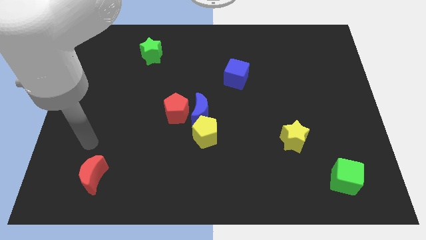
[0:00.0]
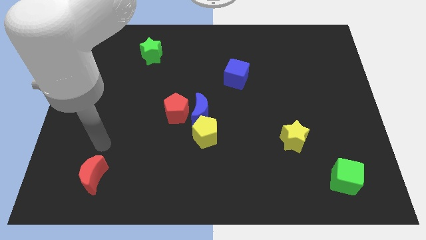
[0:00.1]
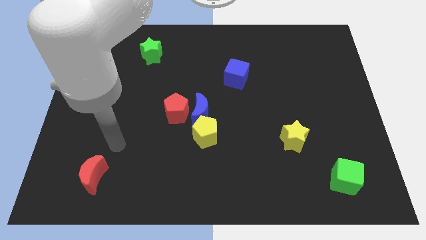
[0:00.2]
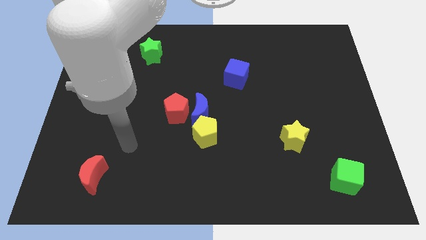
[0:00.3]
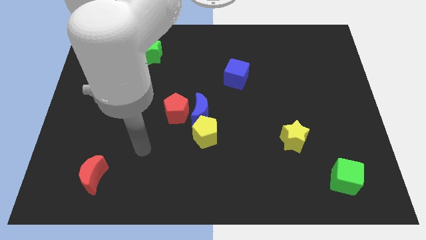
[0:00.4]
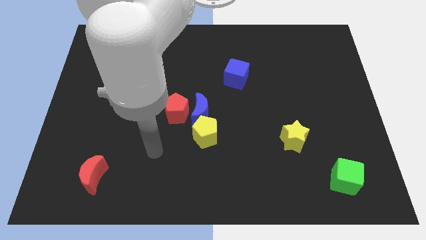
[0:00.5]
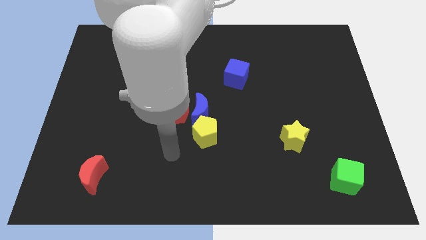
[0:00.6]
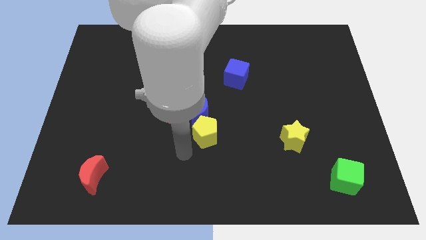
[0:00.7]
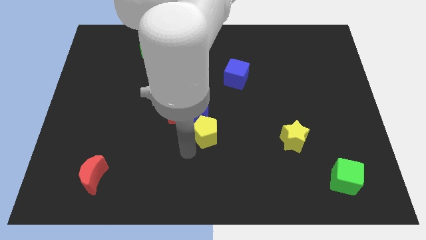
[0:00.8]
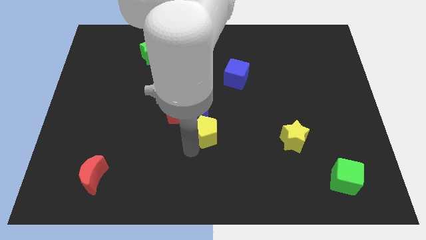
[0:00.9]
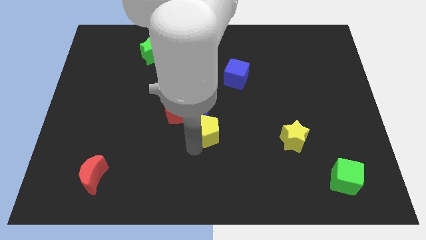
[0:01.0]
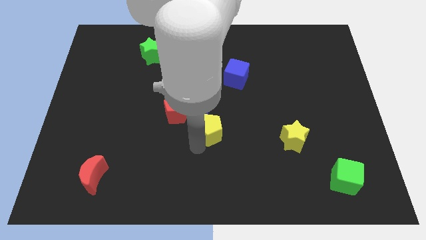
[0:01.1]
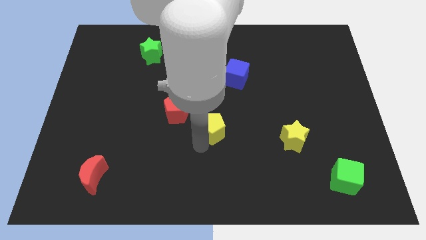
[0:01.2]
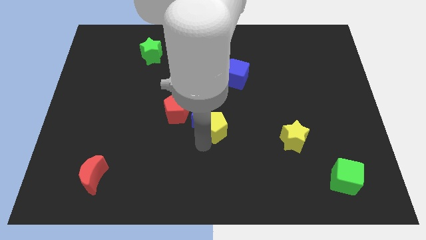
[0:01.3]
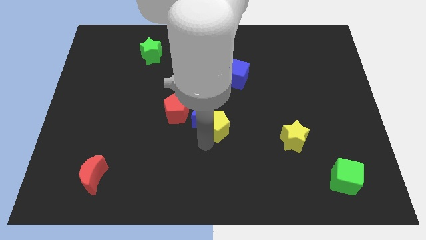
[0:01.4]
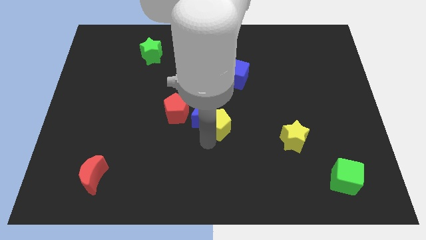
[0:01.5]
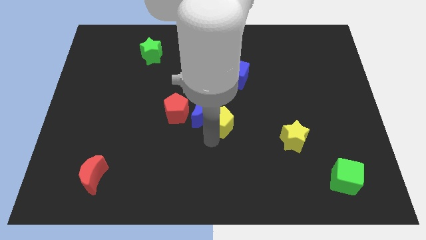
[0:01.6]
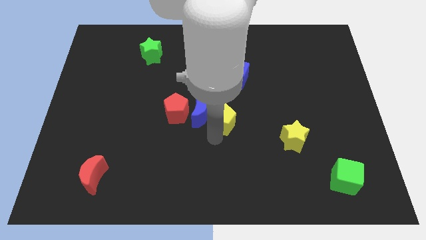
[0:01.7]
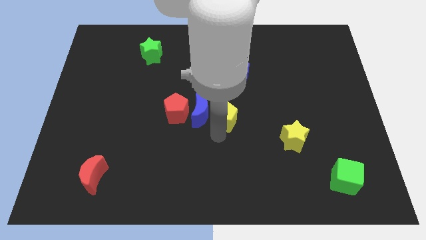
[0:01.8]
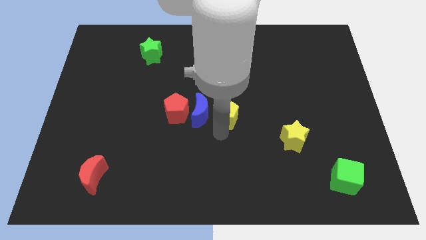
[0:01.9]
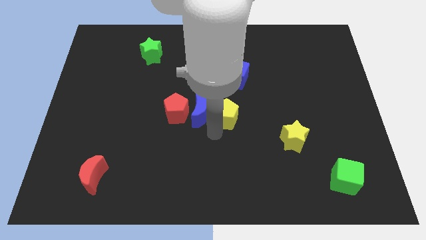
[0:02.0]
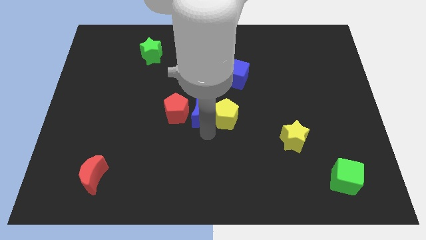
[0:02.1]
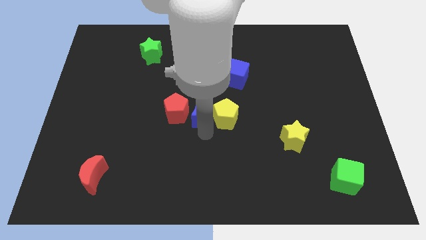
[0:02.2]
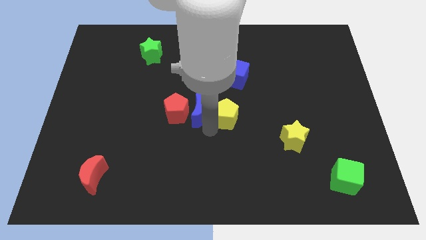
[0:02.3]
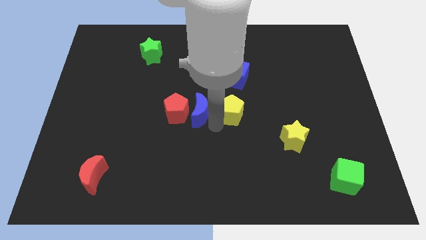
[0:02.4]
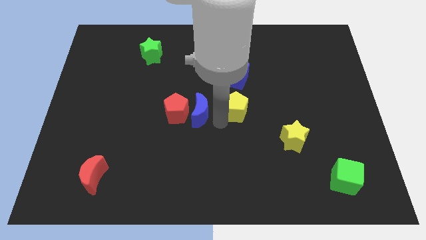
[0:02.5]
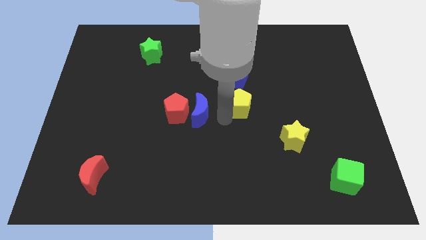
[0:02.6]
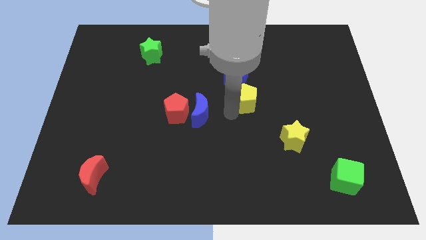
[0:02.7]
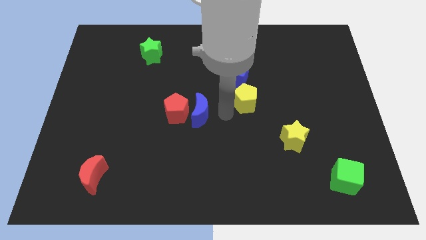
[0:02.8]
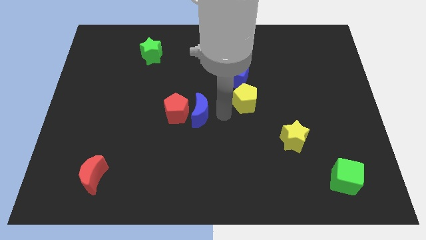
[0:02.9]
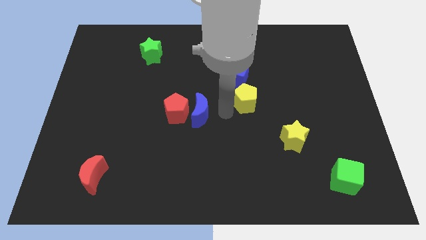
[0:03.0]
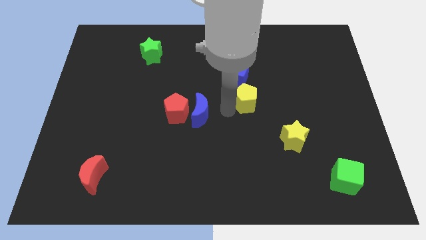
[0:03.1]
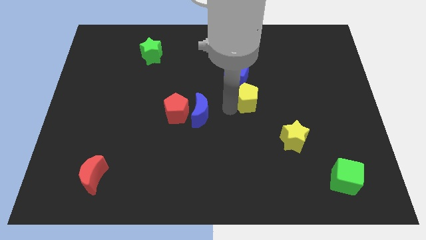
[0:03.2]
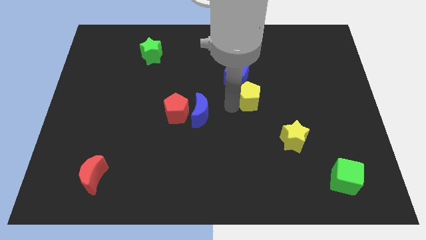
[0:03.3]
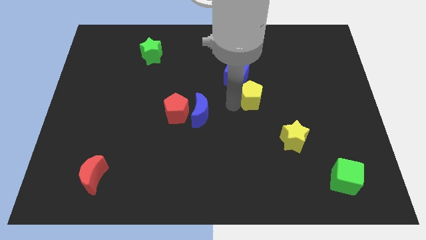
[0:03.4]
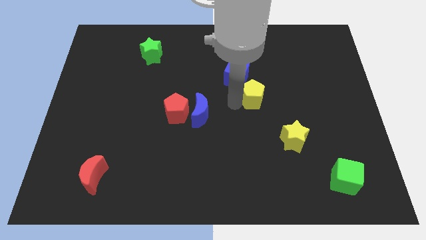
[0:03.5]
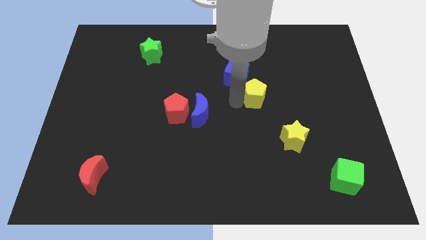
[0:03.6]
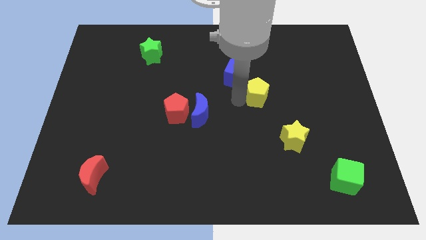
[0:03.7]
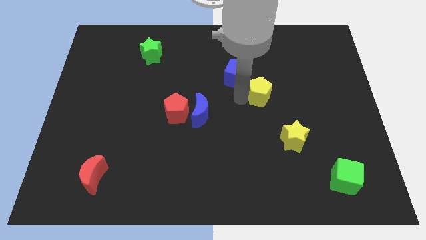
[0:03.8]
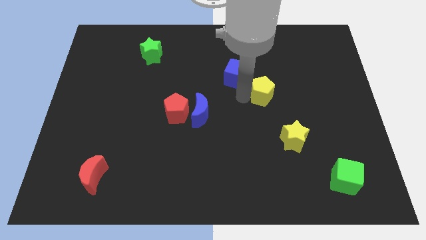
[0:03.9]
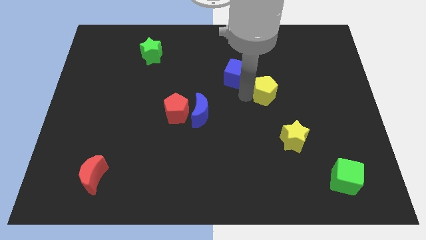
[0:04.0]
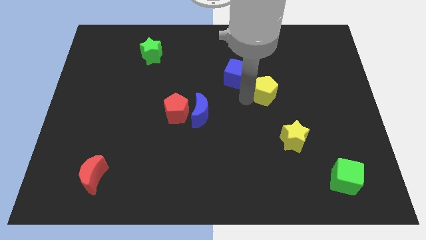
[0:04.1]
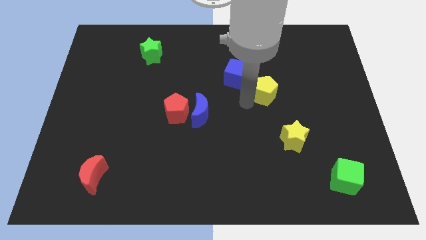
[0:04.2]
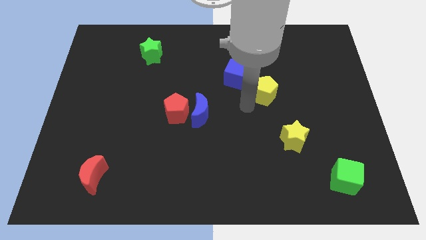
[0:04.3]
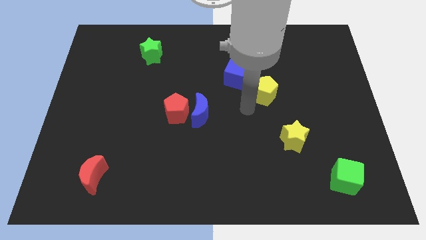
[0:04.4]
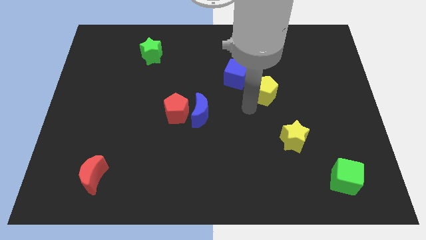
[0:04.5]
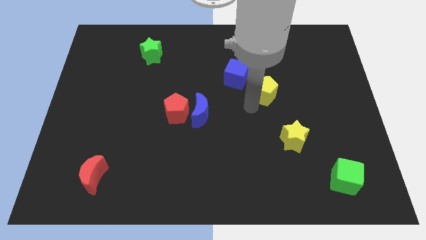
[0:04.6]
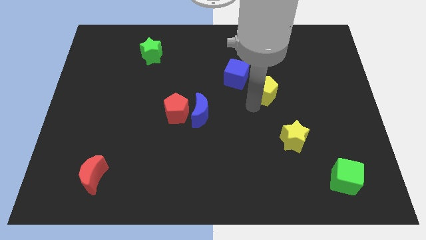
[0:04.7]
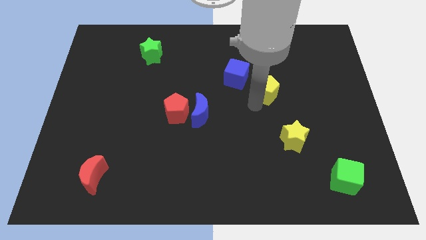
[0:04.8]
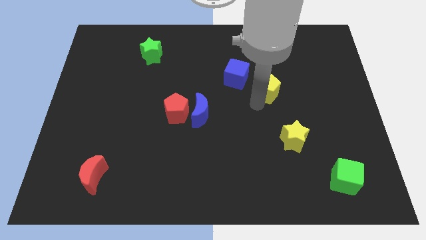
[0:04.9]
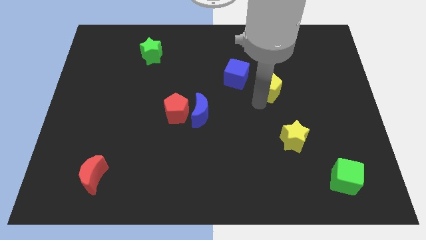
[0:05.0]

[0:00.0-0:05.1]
move the yellow pentagon up and to the right

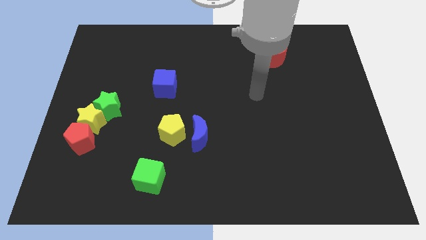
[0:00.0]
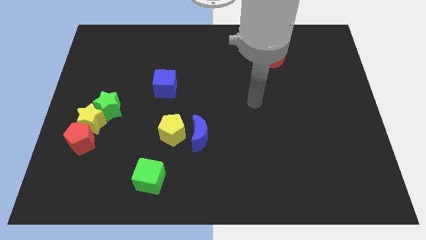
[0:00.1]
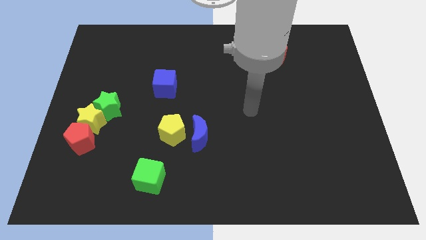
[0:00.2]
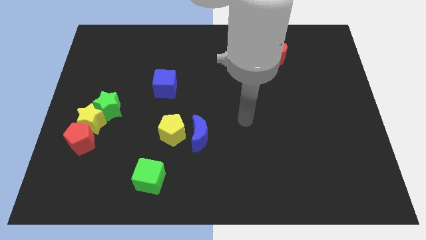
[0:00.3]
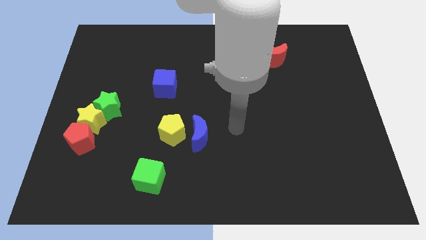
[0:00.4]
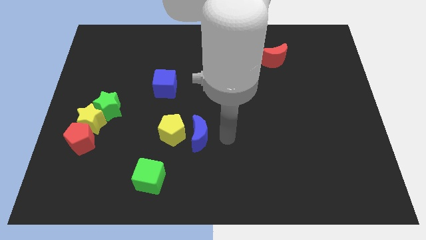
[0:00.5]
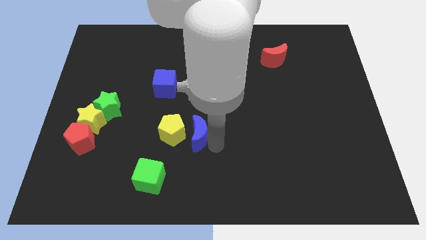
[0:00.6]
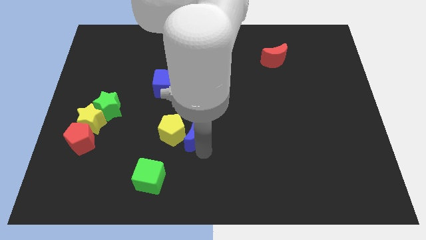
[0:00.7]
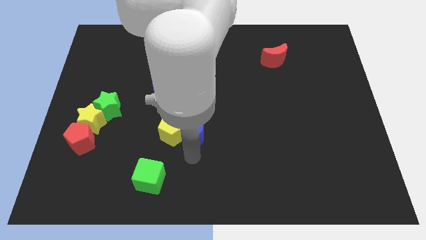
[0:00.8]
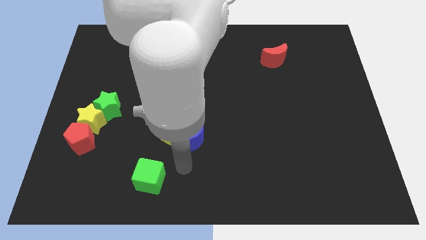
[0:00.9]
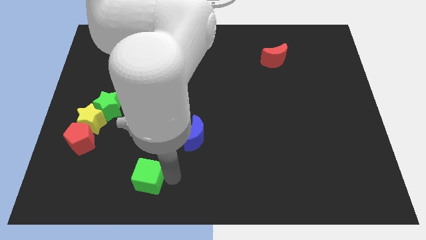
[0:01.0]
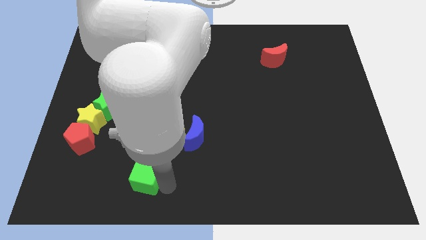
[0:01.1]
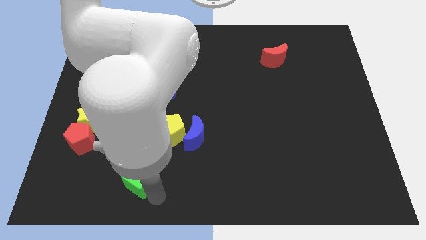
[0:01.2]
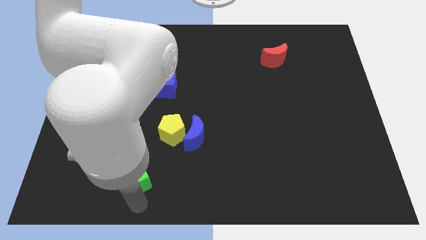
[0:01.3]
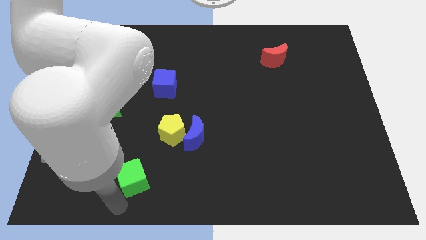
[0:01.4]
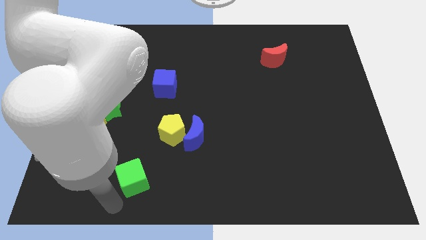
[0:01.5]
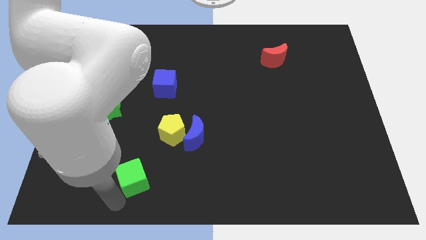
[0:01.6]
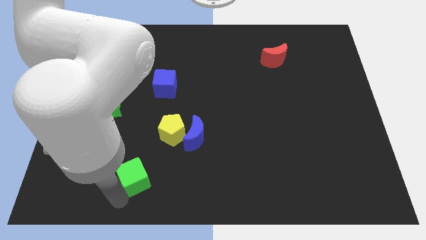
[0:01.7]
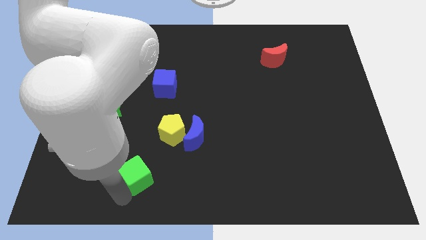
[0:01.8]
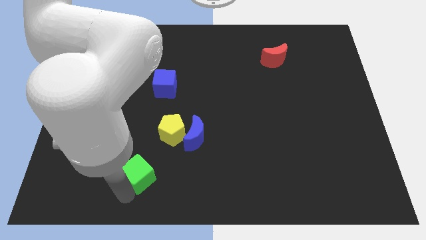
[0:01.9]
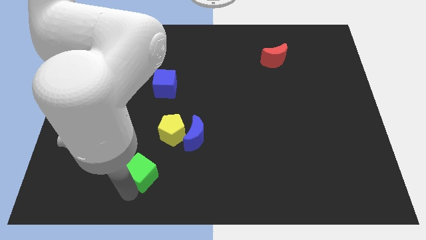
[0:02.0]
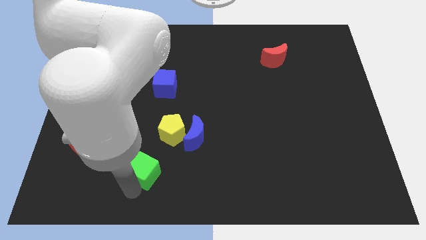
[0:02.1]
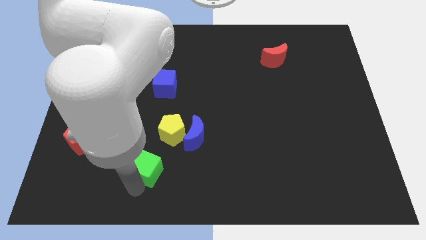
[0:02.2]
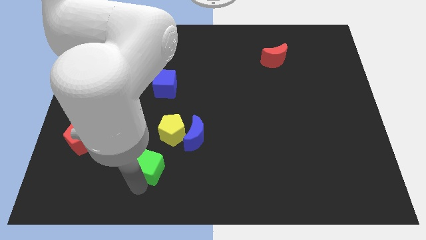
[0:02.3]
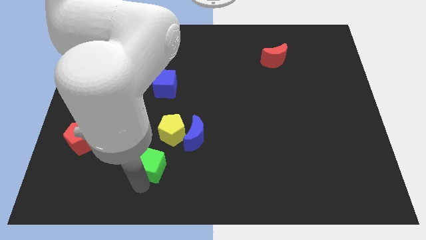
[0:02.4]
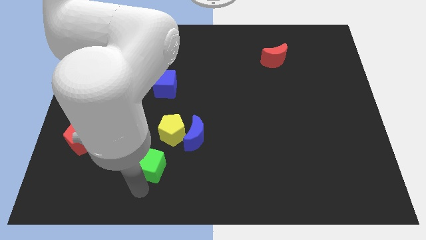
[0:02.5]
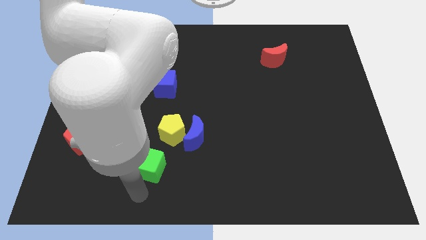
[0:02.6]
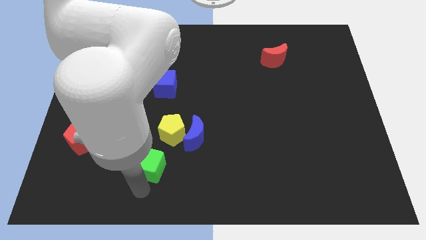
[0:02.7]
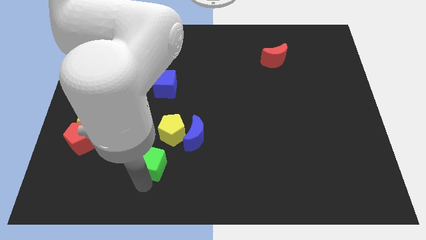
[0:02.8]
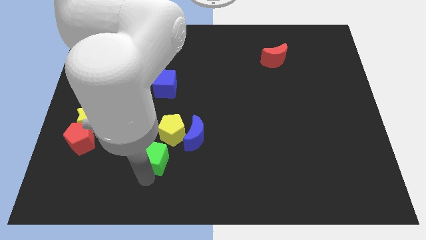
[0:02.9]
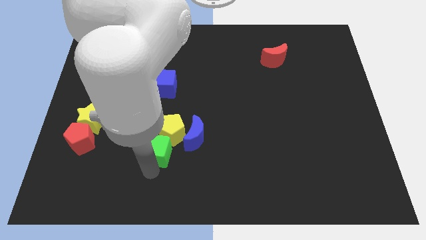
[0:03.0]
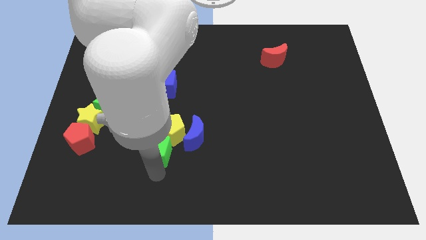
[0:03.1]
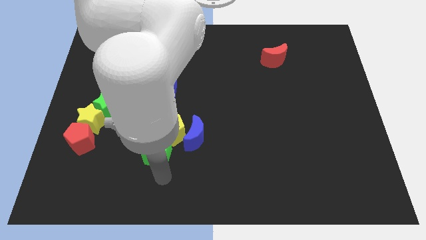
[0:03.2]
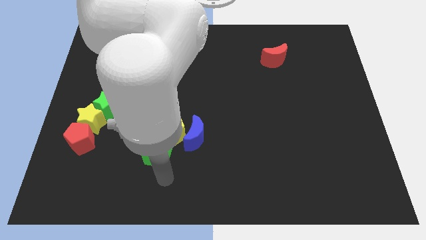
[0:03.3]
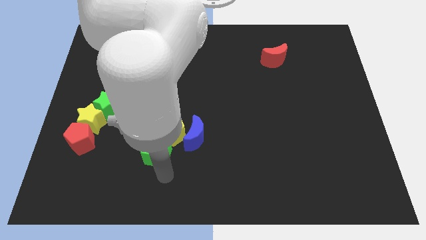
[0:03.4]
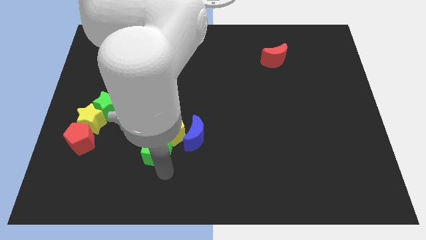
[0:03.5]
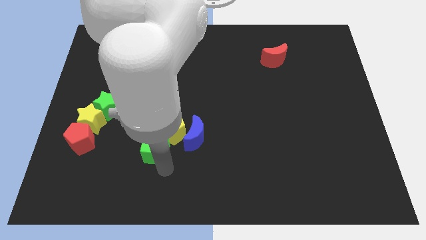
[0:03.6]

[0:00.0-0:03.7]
move the green cube upwards slightly
